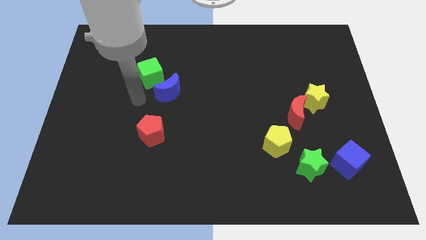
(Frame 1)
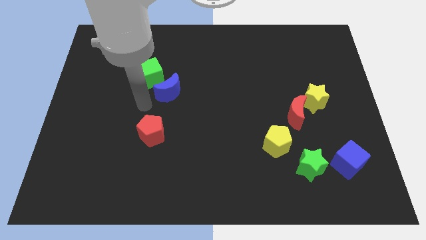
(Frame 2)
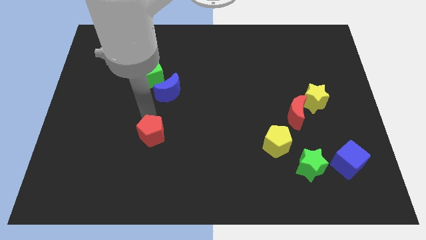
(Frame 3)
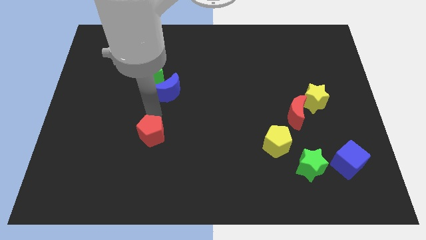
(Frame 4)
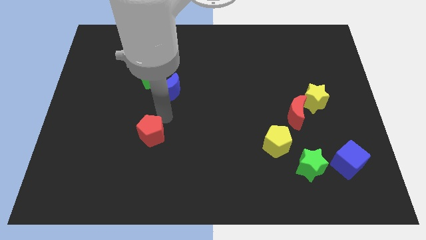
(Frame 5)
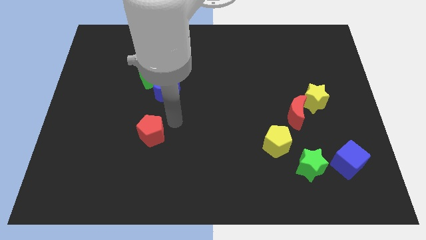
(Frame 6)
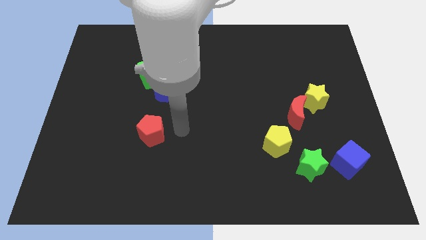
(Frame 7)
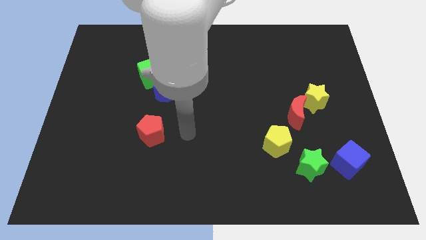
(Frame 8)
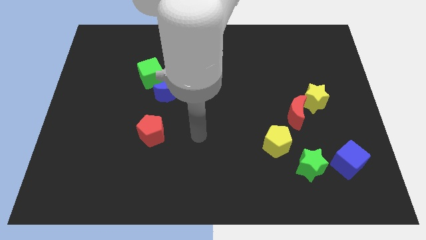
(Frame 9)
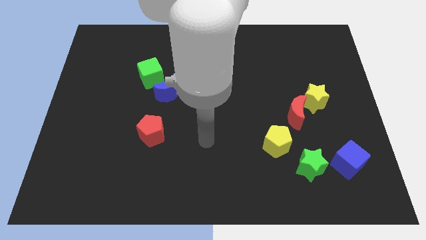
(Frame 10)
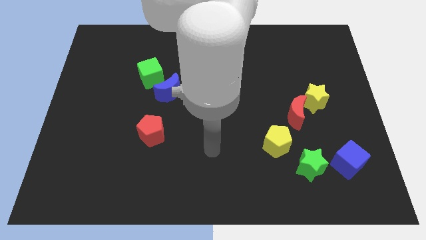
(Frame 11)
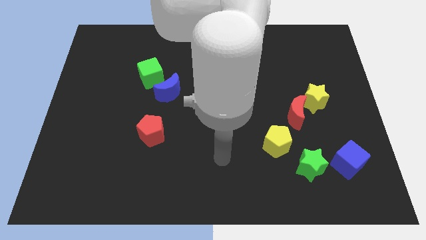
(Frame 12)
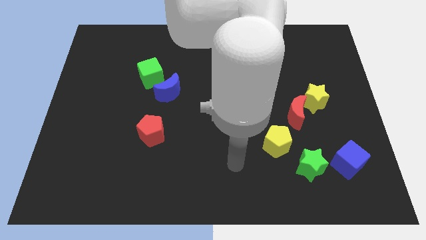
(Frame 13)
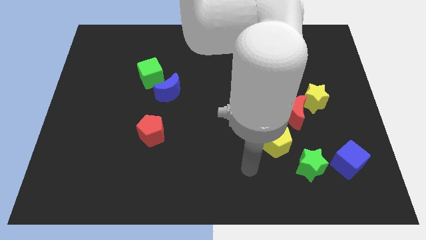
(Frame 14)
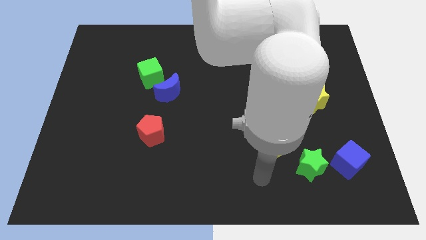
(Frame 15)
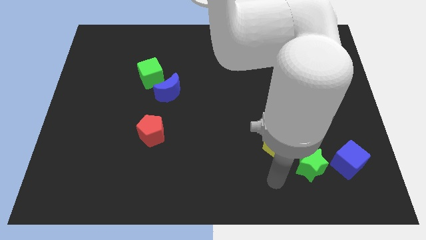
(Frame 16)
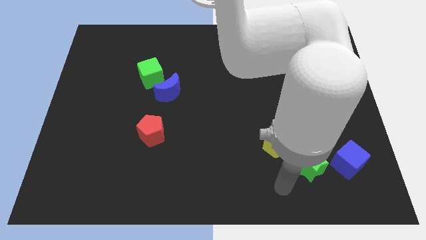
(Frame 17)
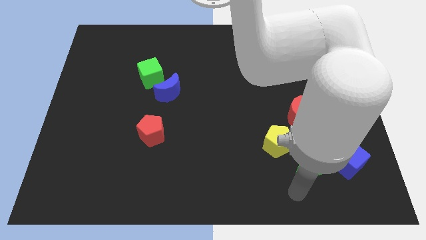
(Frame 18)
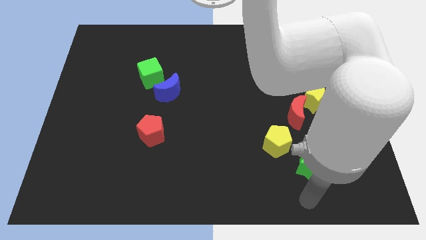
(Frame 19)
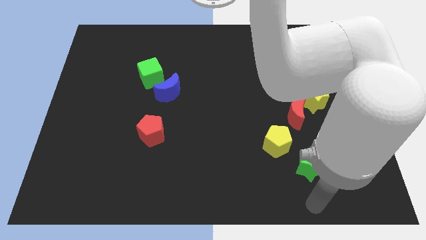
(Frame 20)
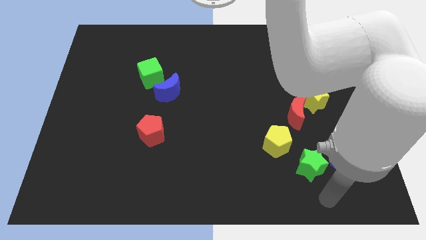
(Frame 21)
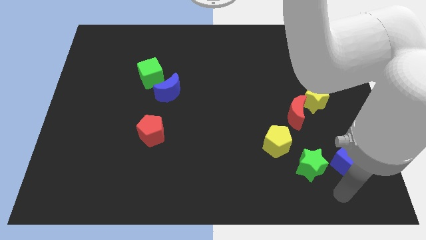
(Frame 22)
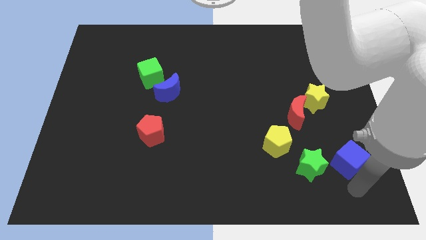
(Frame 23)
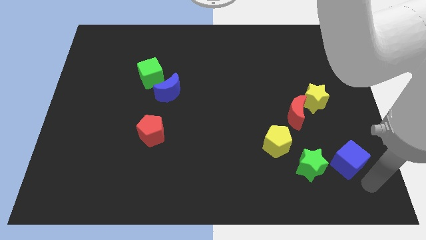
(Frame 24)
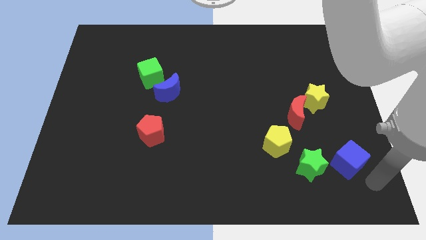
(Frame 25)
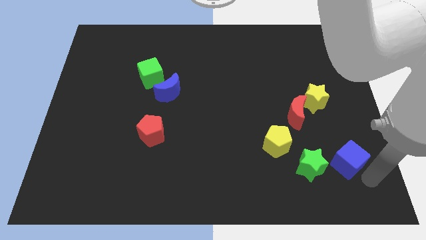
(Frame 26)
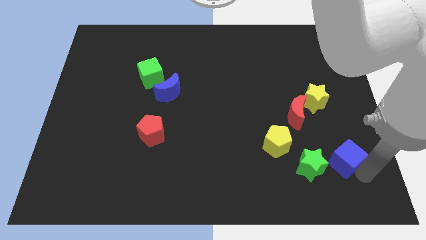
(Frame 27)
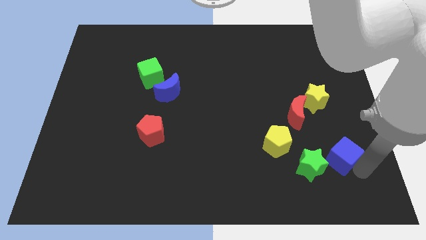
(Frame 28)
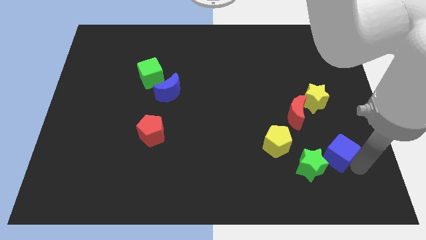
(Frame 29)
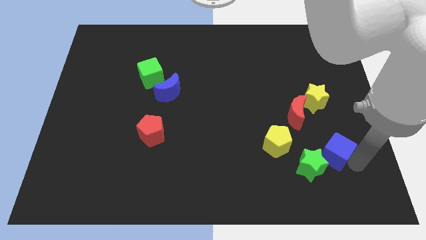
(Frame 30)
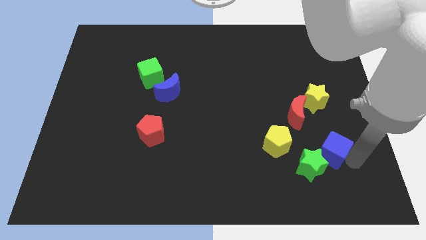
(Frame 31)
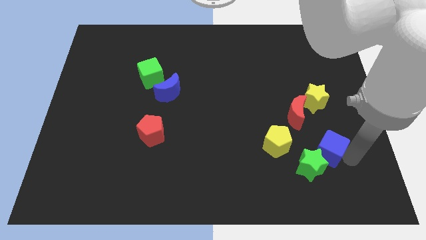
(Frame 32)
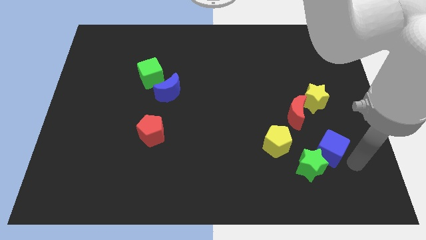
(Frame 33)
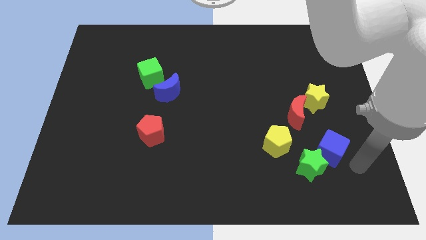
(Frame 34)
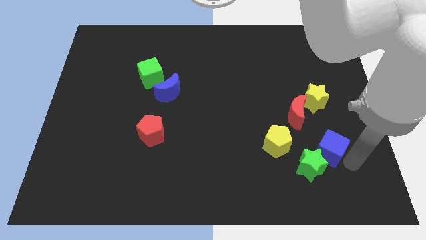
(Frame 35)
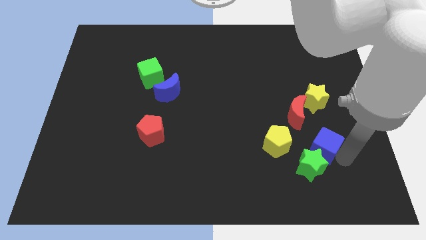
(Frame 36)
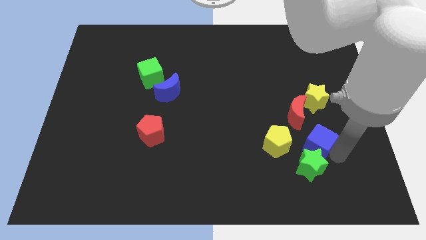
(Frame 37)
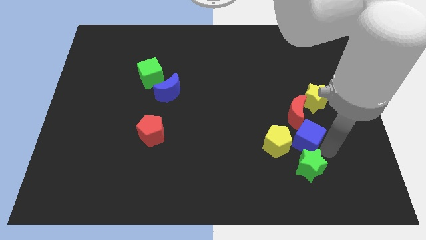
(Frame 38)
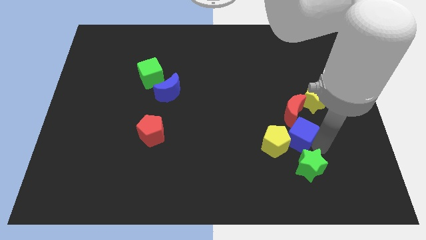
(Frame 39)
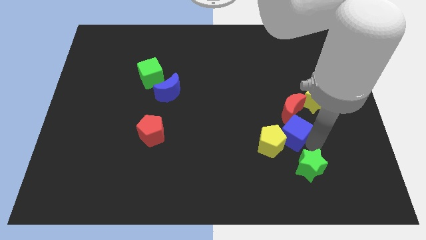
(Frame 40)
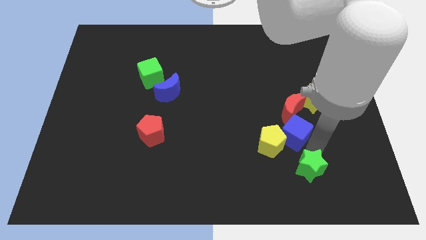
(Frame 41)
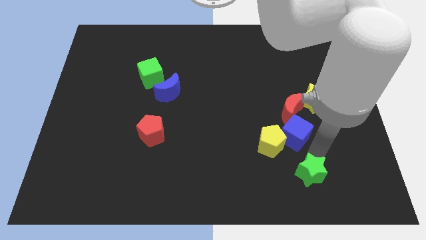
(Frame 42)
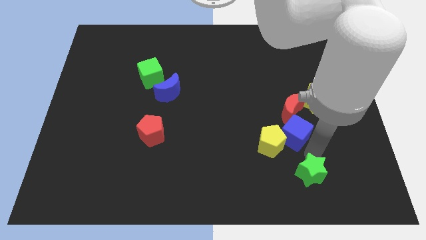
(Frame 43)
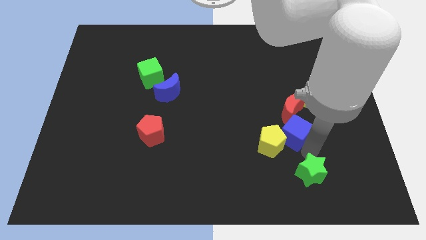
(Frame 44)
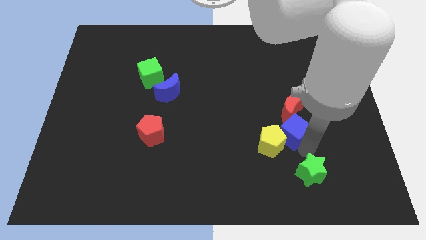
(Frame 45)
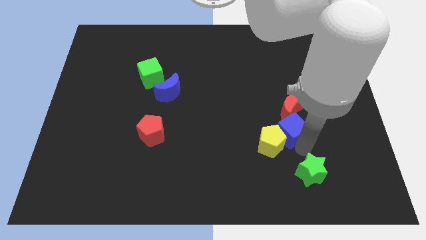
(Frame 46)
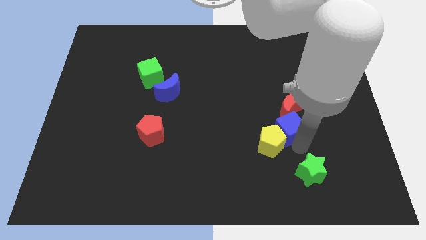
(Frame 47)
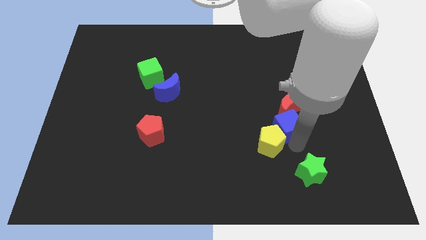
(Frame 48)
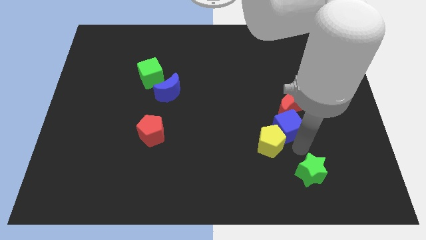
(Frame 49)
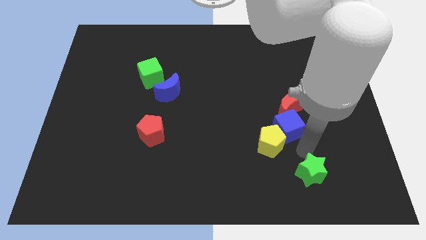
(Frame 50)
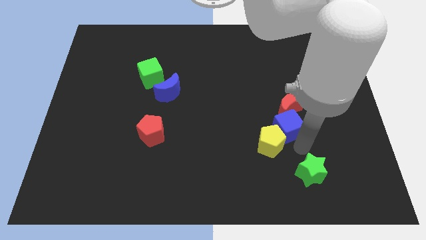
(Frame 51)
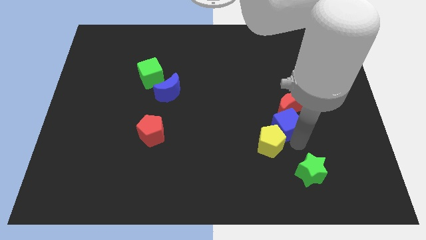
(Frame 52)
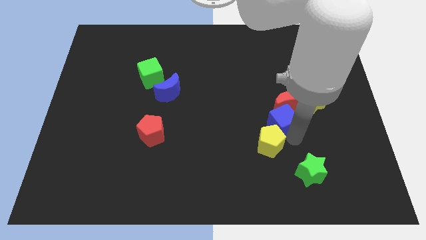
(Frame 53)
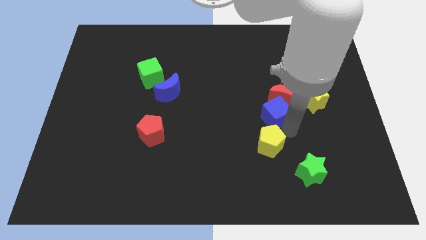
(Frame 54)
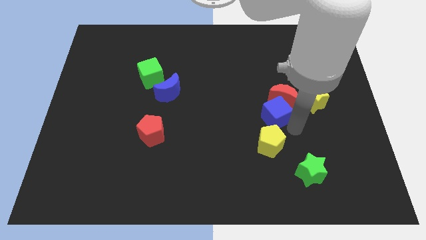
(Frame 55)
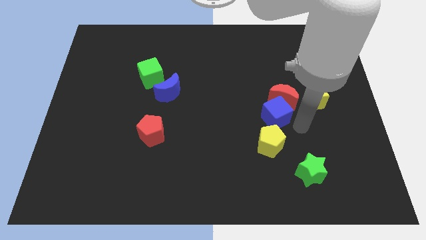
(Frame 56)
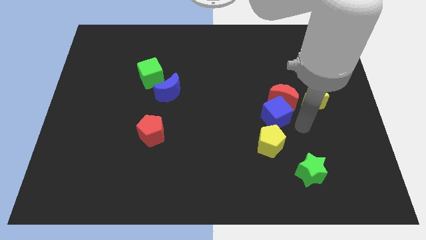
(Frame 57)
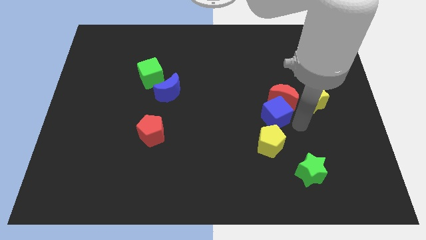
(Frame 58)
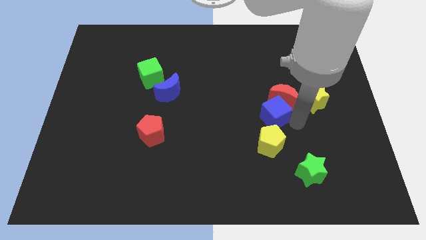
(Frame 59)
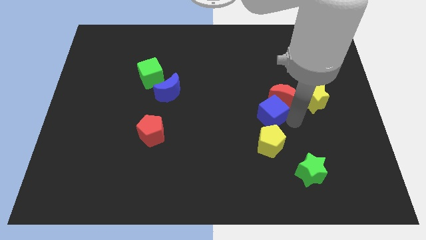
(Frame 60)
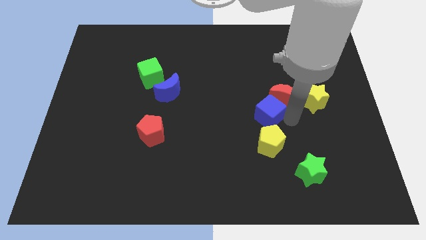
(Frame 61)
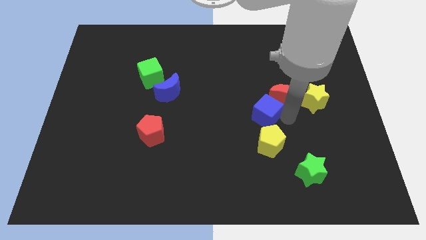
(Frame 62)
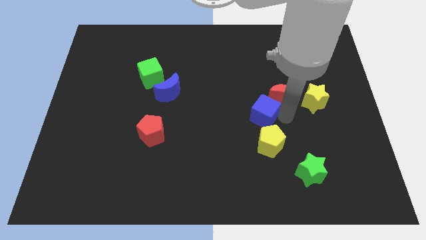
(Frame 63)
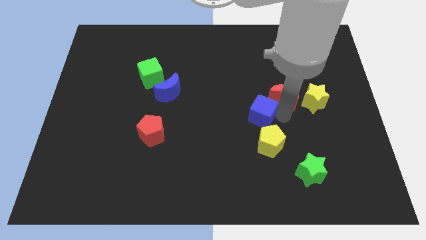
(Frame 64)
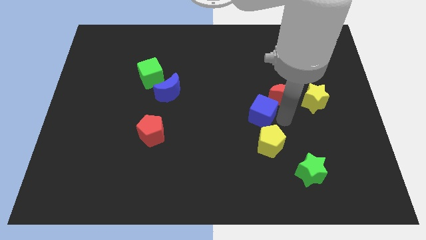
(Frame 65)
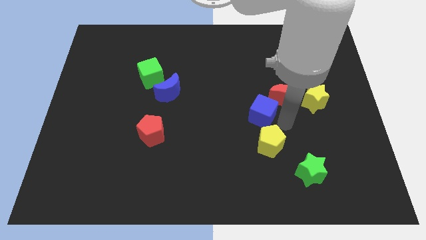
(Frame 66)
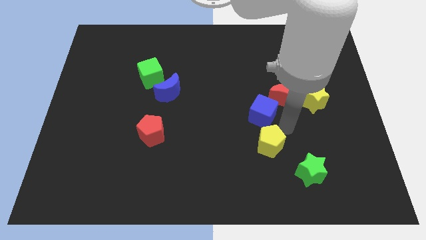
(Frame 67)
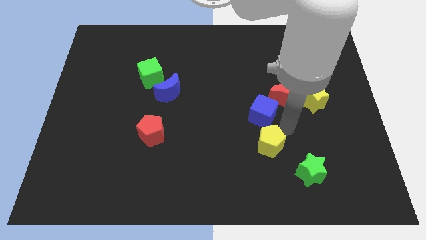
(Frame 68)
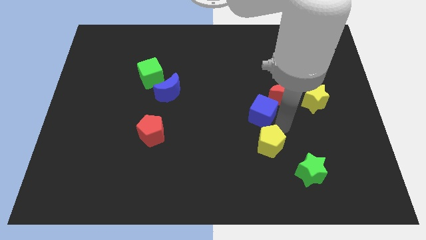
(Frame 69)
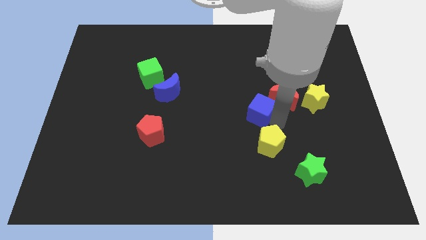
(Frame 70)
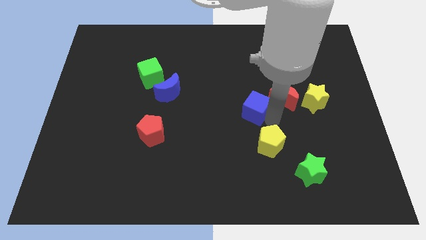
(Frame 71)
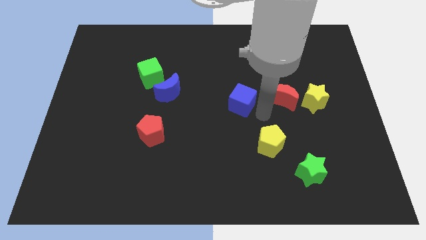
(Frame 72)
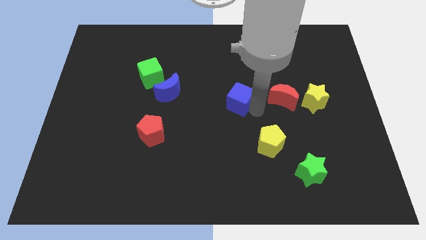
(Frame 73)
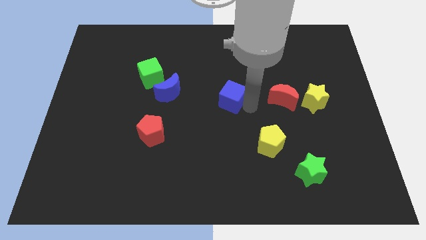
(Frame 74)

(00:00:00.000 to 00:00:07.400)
put the blue cube just right of the blue moon
